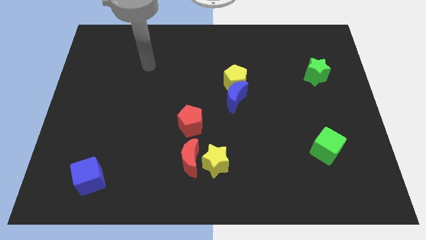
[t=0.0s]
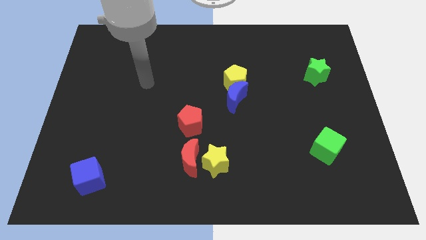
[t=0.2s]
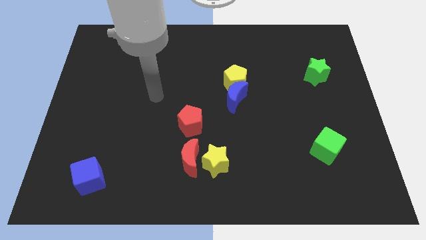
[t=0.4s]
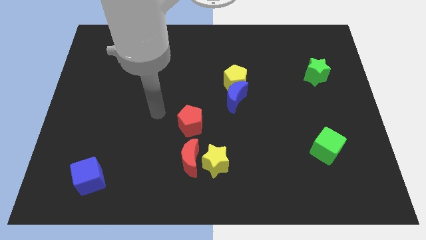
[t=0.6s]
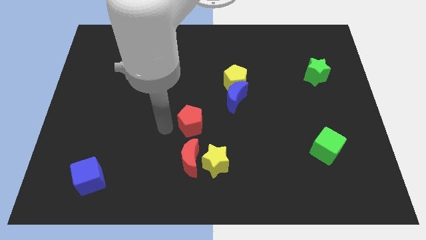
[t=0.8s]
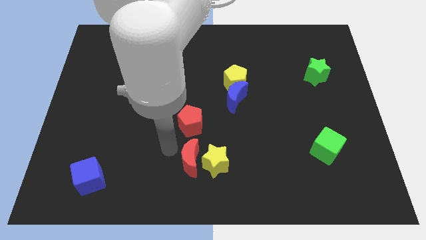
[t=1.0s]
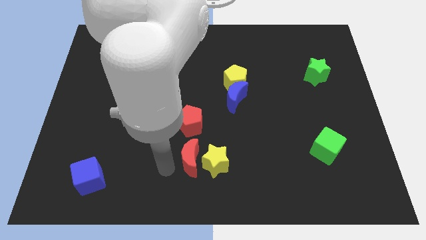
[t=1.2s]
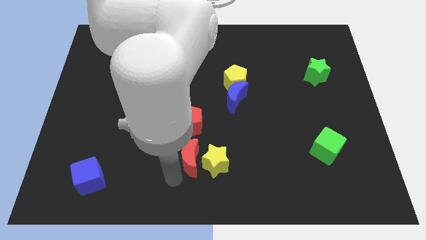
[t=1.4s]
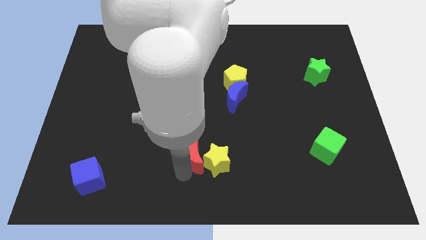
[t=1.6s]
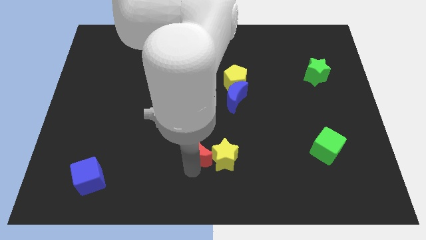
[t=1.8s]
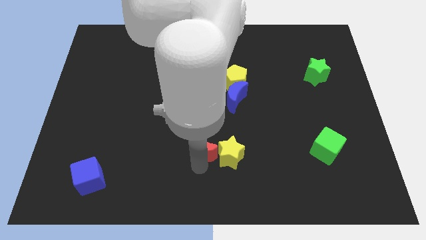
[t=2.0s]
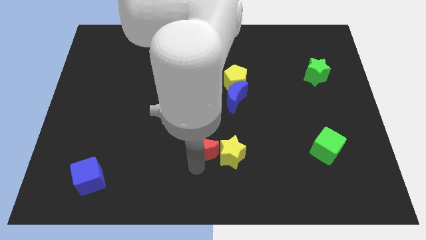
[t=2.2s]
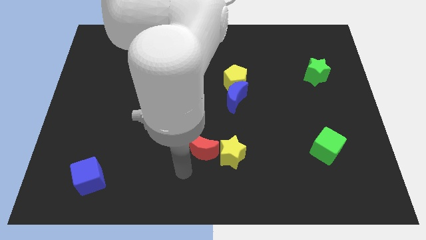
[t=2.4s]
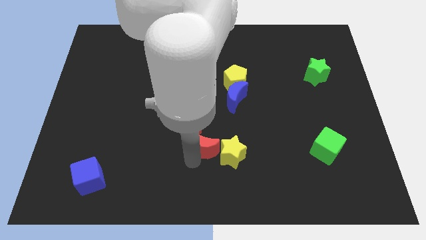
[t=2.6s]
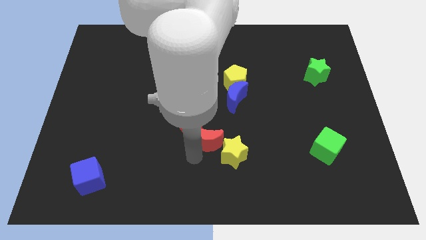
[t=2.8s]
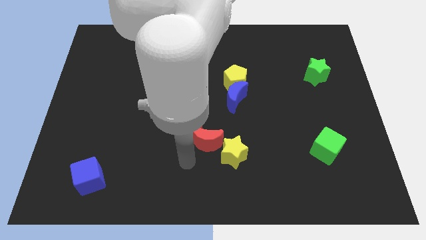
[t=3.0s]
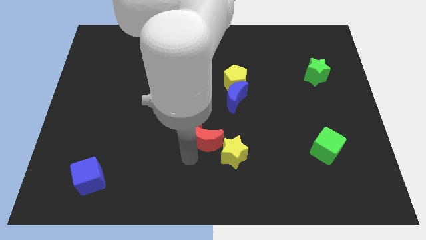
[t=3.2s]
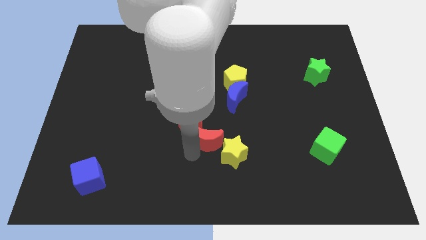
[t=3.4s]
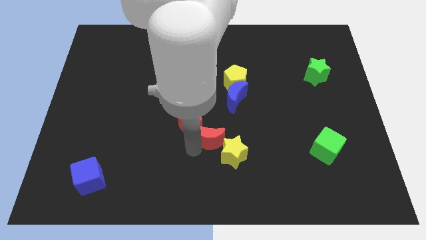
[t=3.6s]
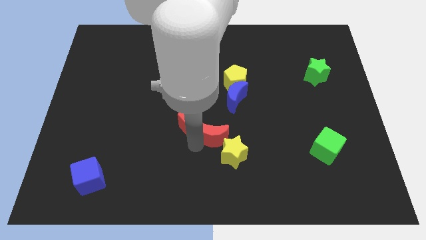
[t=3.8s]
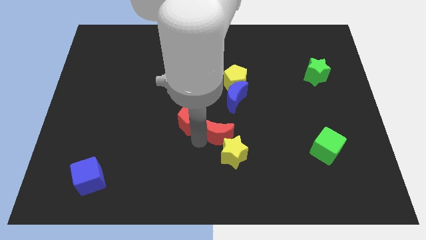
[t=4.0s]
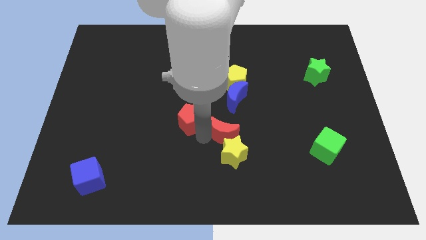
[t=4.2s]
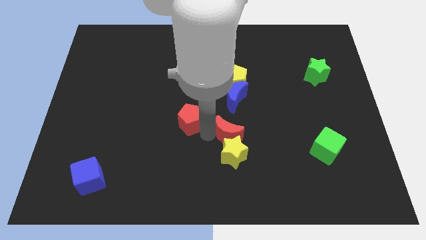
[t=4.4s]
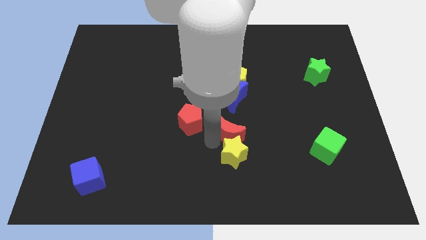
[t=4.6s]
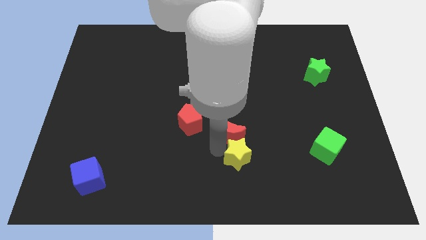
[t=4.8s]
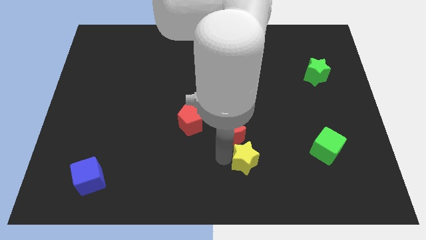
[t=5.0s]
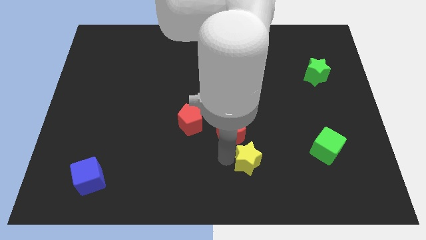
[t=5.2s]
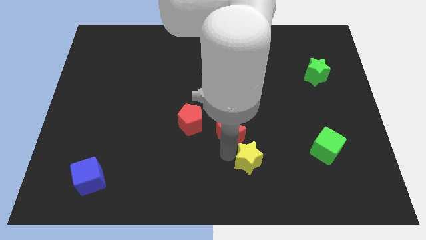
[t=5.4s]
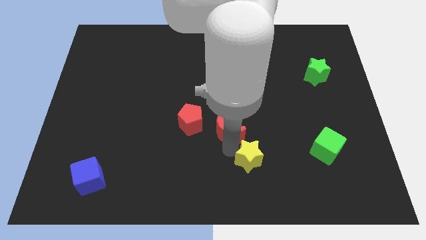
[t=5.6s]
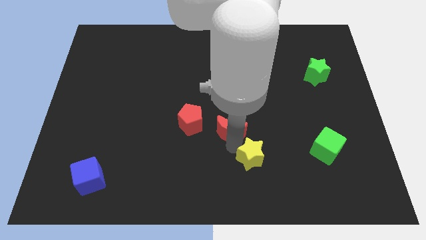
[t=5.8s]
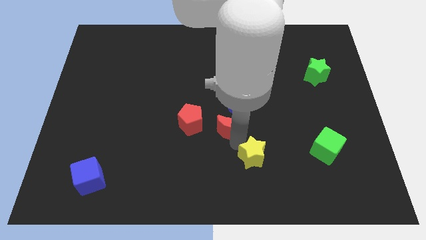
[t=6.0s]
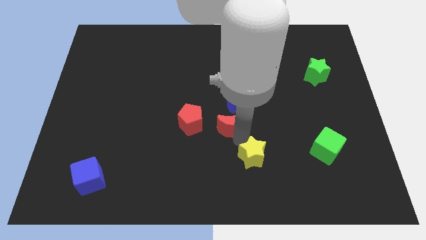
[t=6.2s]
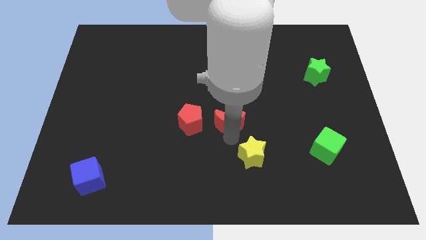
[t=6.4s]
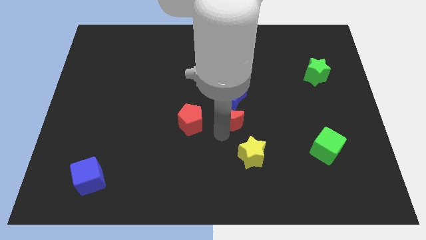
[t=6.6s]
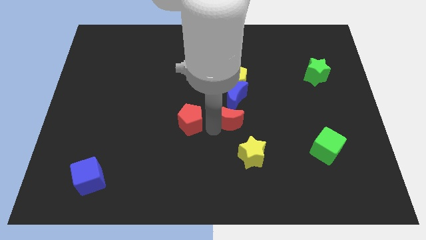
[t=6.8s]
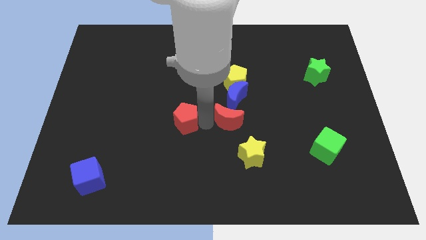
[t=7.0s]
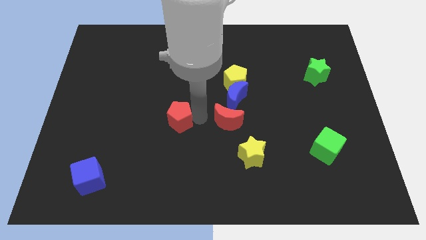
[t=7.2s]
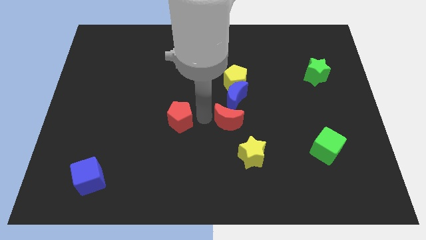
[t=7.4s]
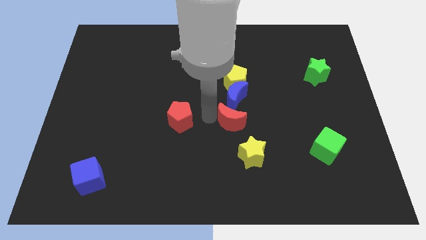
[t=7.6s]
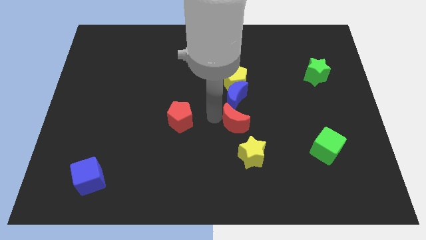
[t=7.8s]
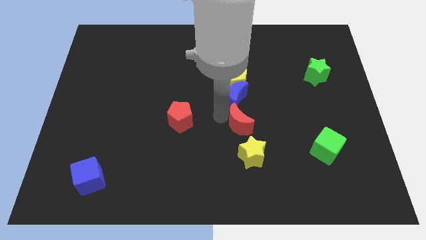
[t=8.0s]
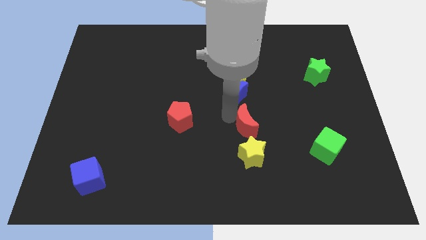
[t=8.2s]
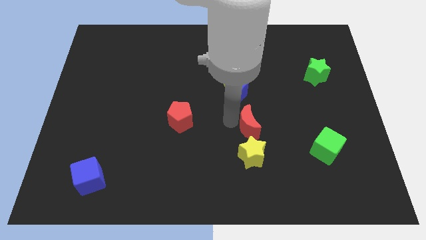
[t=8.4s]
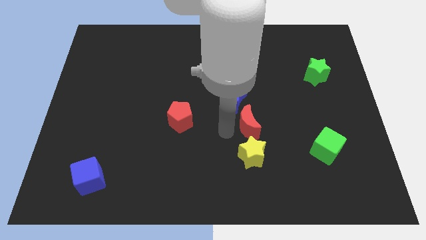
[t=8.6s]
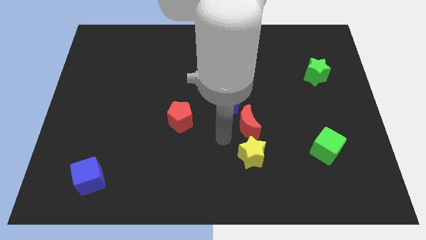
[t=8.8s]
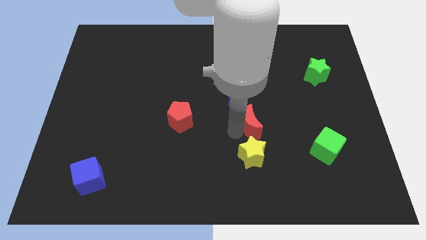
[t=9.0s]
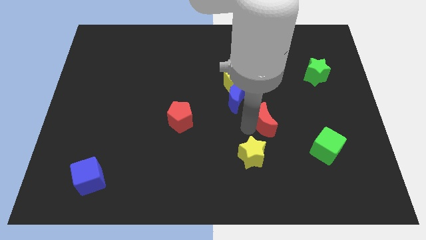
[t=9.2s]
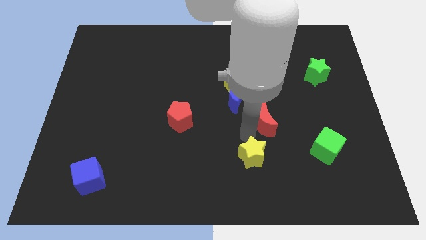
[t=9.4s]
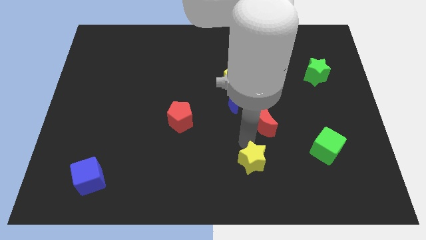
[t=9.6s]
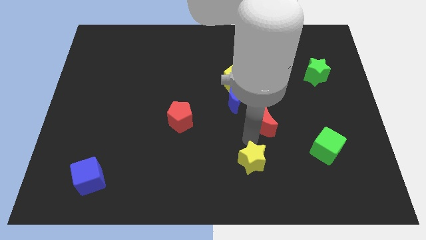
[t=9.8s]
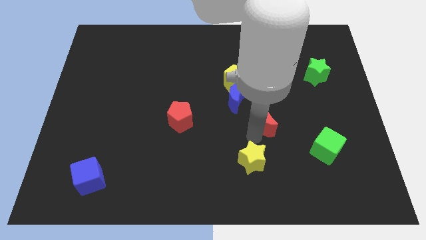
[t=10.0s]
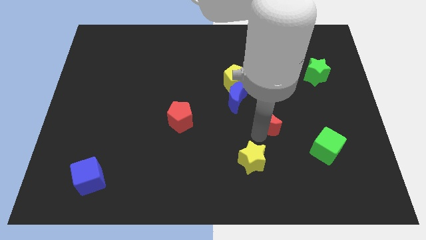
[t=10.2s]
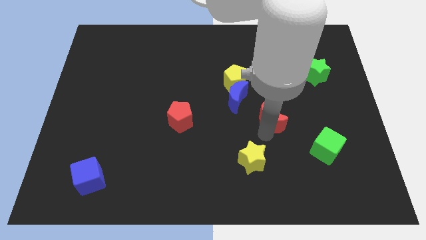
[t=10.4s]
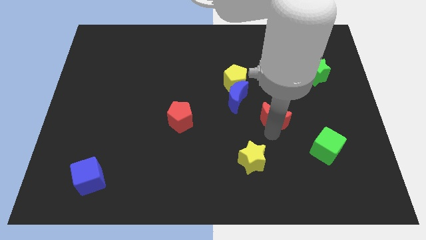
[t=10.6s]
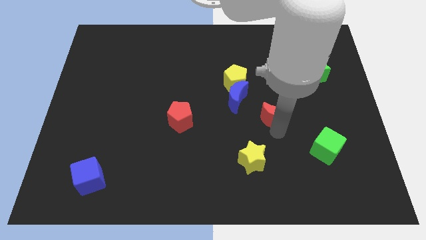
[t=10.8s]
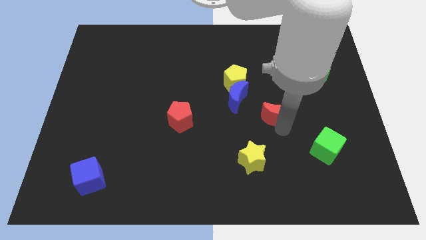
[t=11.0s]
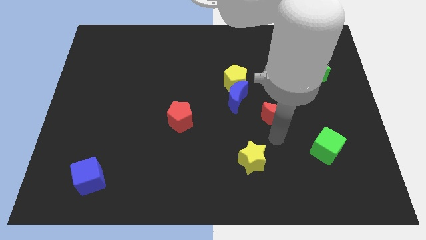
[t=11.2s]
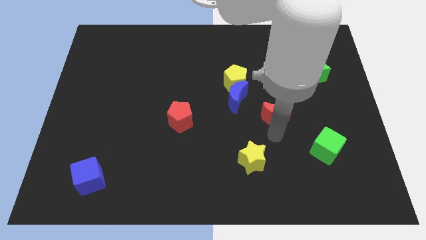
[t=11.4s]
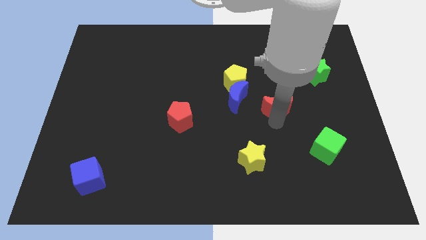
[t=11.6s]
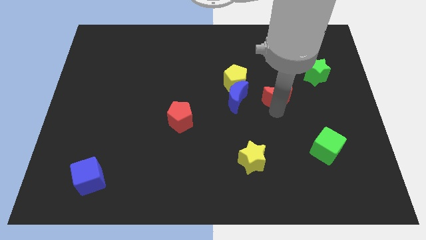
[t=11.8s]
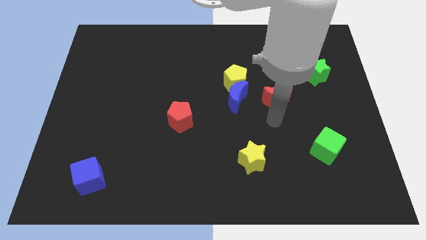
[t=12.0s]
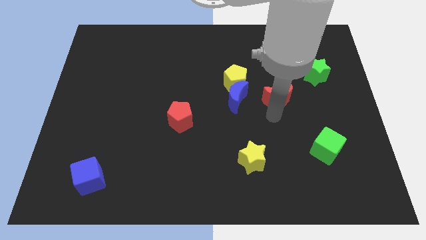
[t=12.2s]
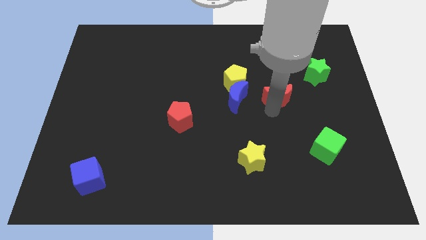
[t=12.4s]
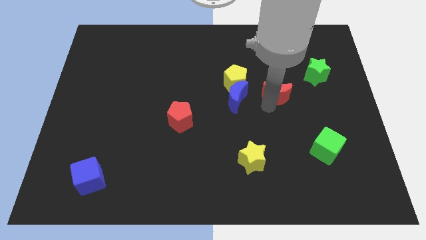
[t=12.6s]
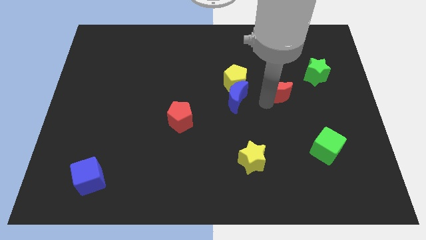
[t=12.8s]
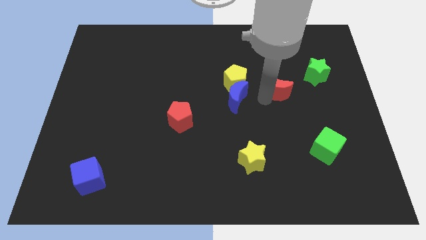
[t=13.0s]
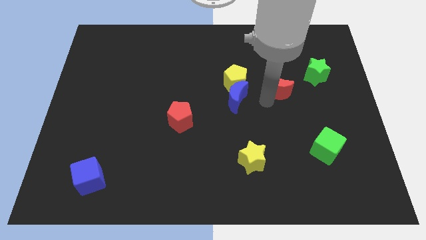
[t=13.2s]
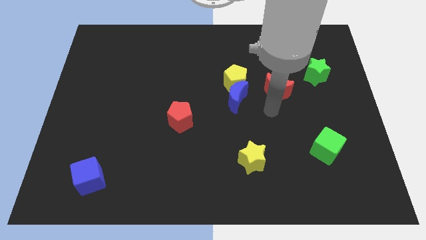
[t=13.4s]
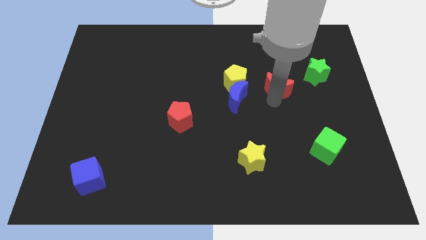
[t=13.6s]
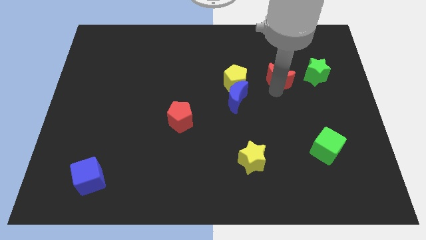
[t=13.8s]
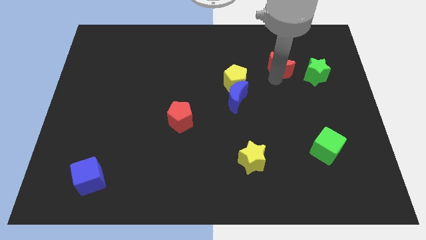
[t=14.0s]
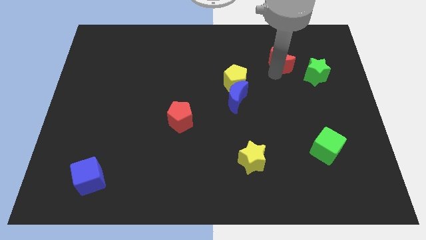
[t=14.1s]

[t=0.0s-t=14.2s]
put the red moon diagonally up and to the left of the green star
